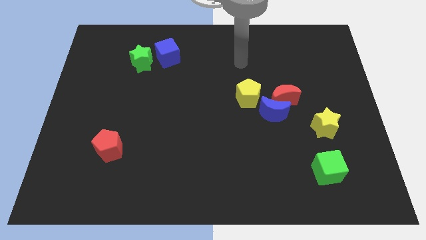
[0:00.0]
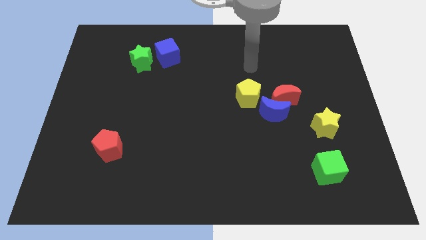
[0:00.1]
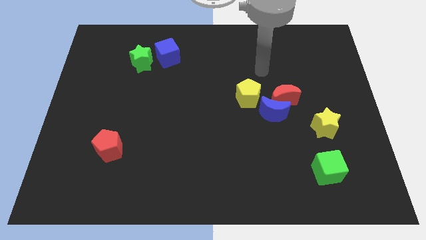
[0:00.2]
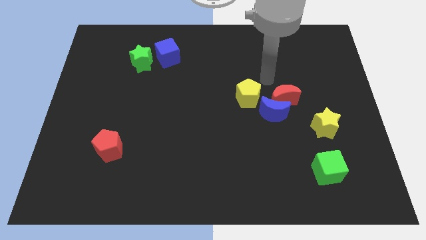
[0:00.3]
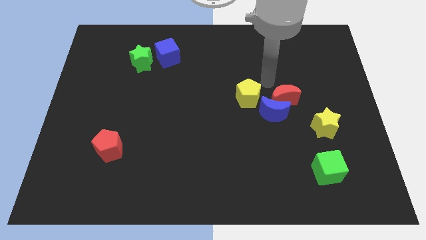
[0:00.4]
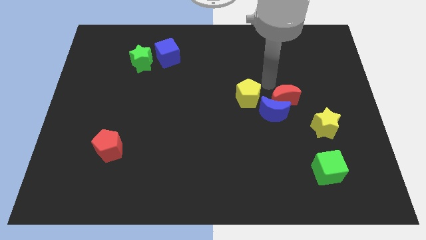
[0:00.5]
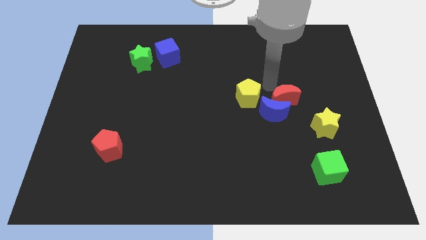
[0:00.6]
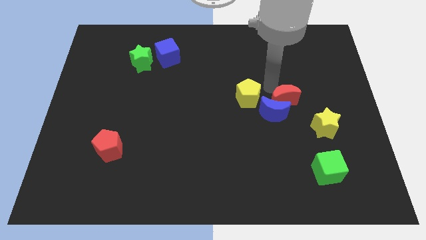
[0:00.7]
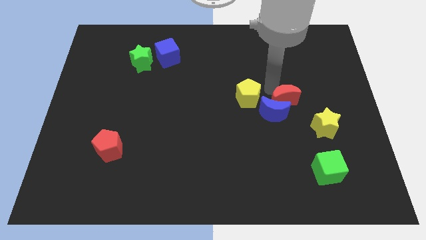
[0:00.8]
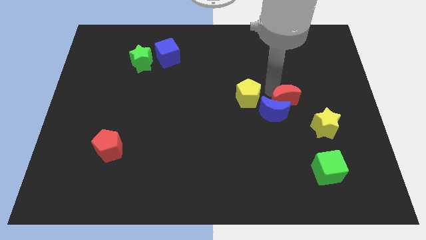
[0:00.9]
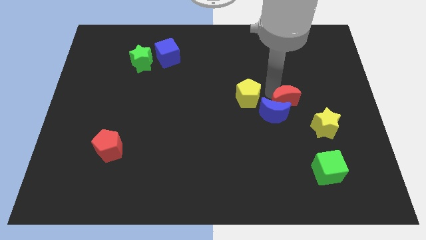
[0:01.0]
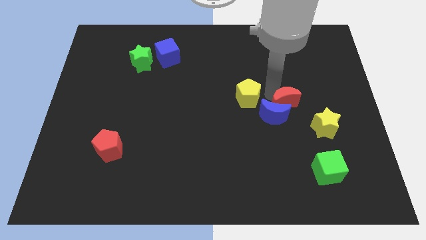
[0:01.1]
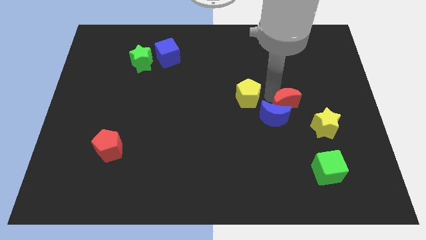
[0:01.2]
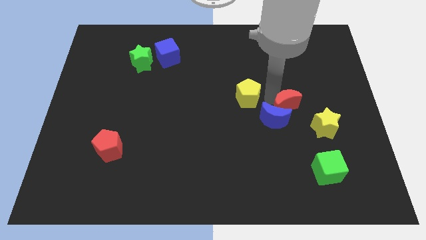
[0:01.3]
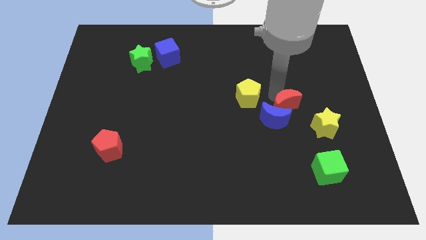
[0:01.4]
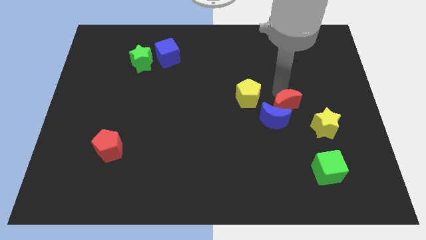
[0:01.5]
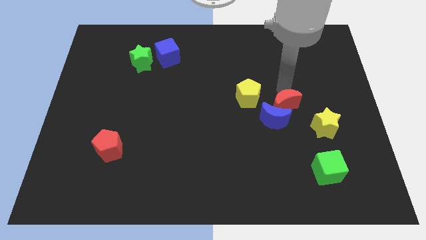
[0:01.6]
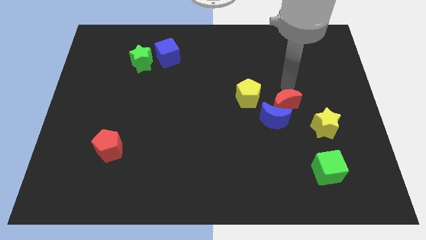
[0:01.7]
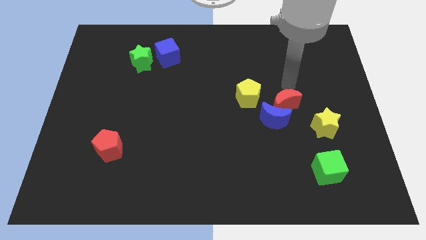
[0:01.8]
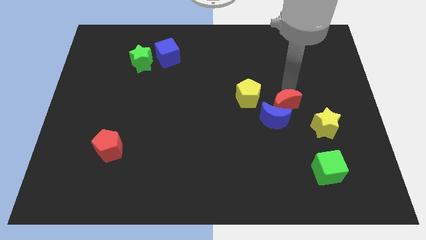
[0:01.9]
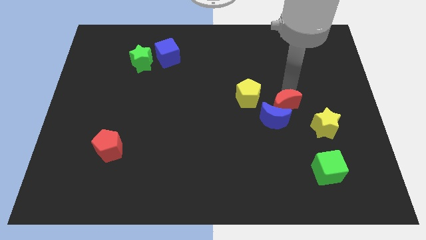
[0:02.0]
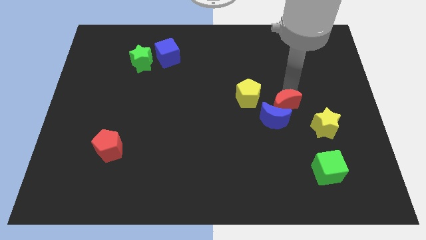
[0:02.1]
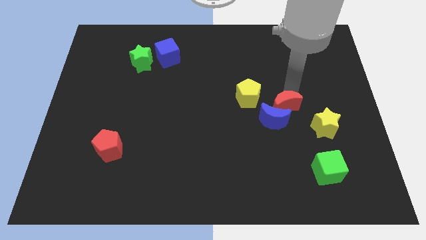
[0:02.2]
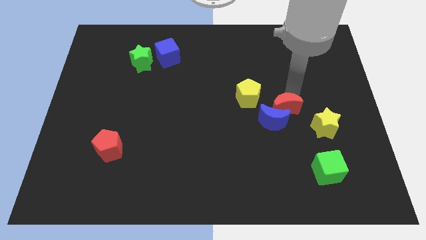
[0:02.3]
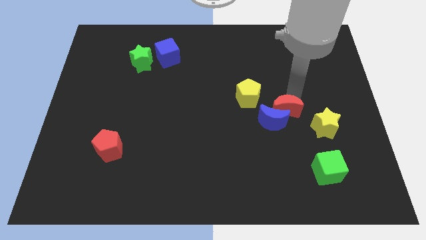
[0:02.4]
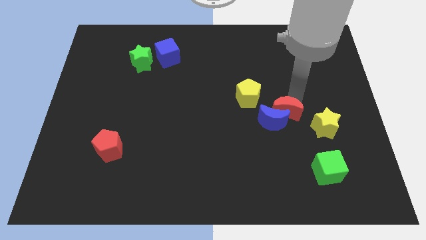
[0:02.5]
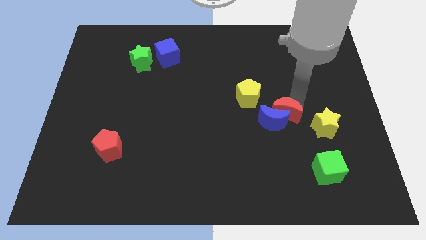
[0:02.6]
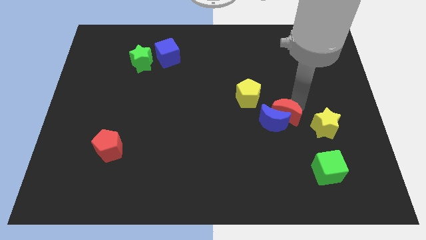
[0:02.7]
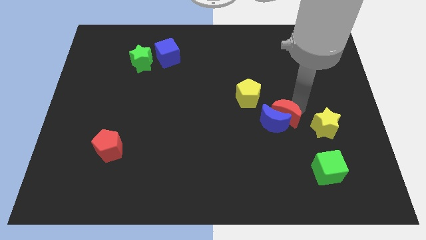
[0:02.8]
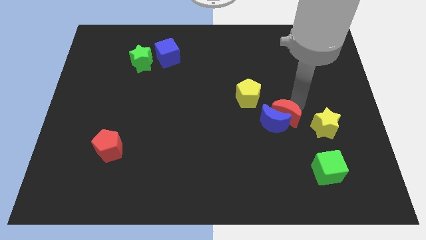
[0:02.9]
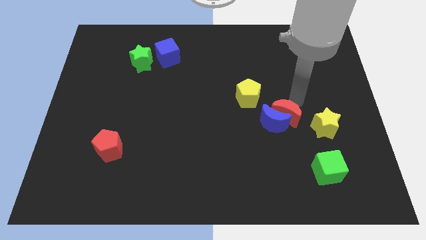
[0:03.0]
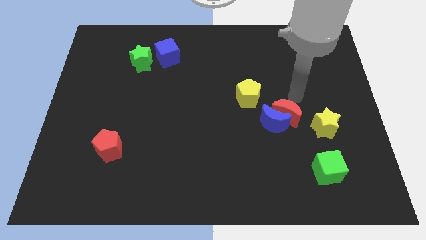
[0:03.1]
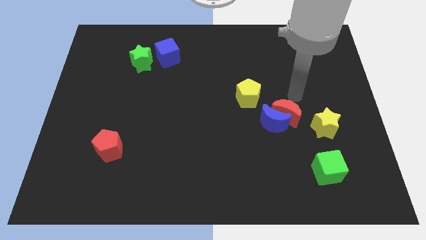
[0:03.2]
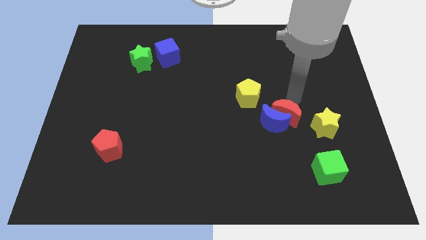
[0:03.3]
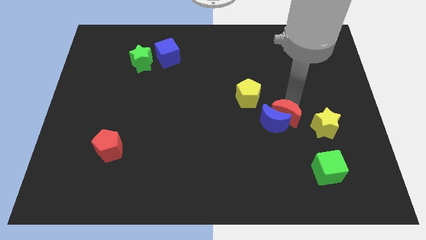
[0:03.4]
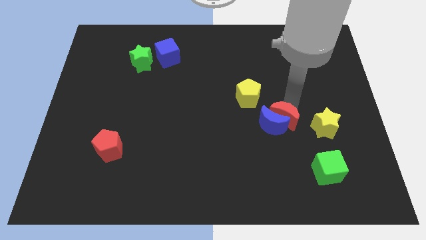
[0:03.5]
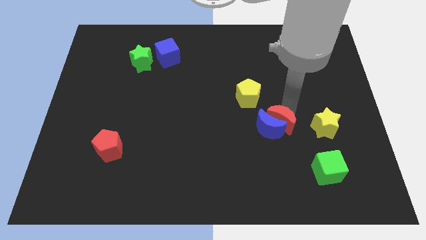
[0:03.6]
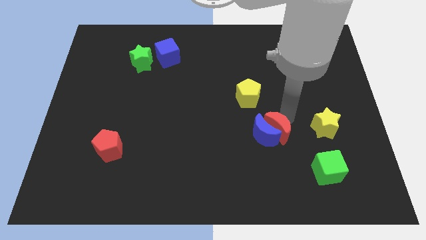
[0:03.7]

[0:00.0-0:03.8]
slide the red moon a little diagonally downwards and left

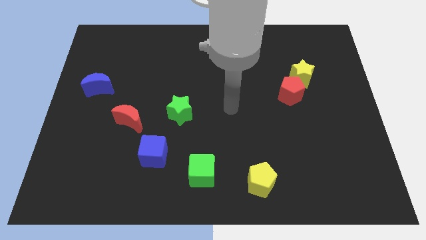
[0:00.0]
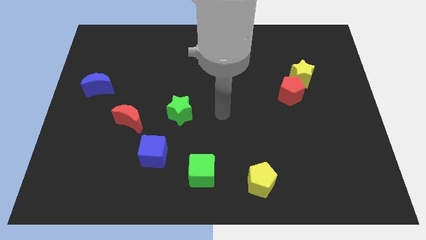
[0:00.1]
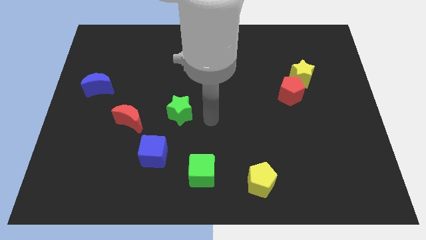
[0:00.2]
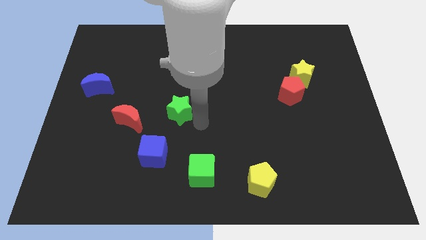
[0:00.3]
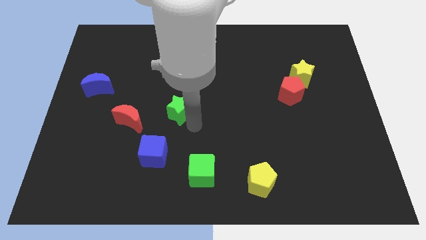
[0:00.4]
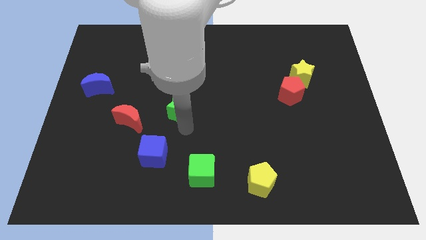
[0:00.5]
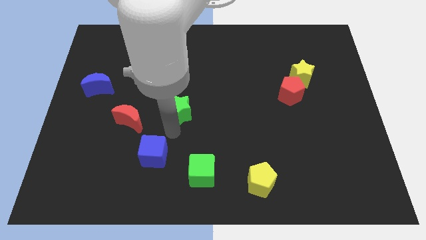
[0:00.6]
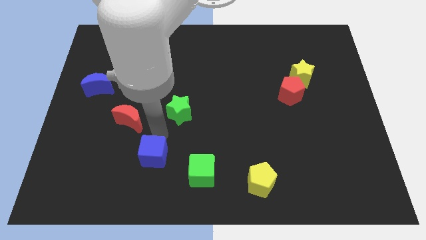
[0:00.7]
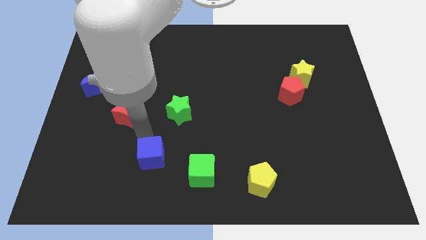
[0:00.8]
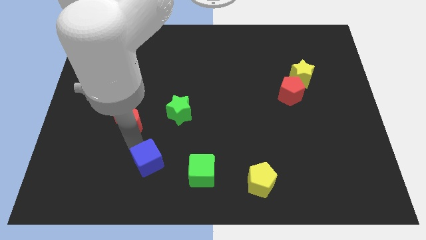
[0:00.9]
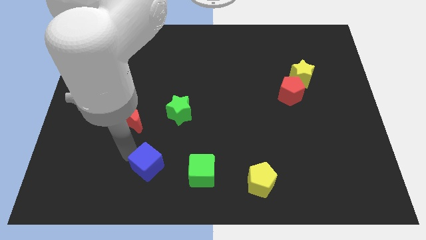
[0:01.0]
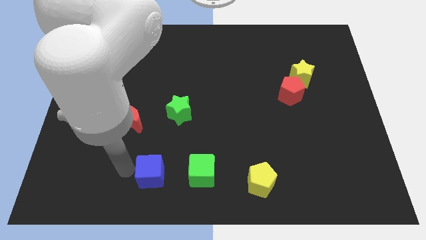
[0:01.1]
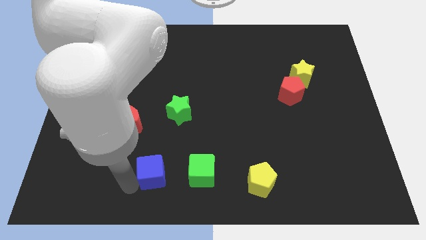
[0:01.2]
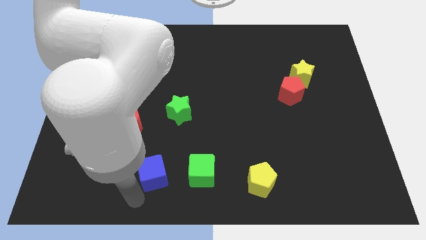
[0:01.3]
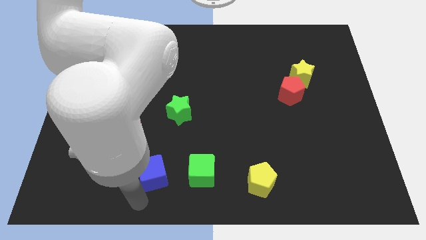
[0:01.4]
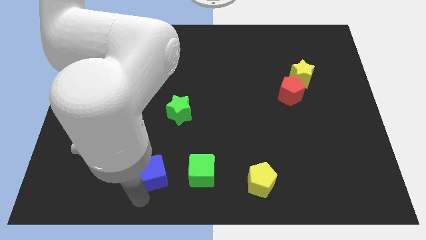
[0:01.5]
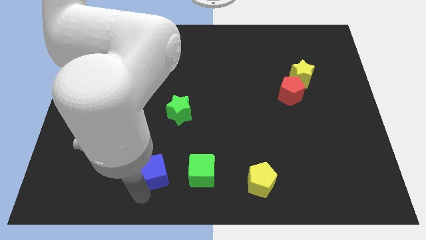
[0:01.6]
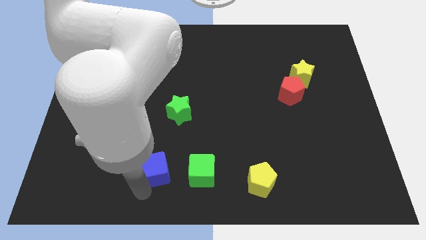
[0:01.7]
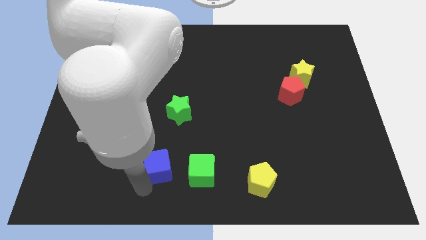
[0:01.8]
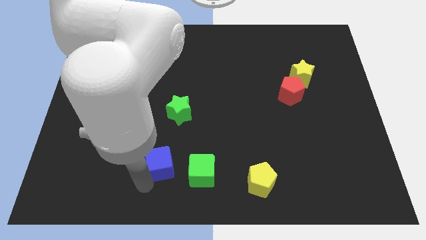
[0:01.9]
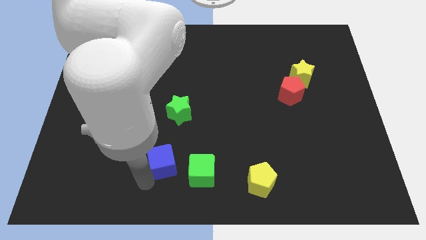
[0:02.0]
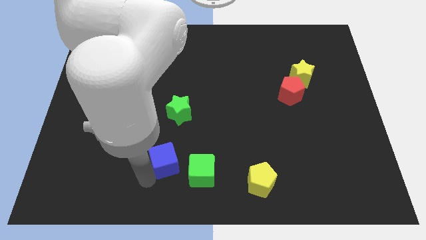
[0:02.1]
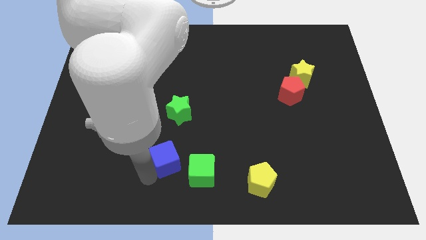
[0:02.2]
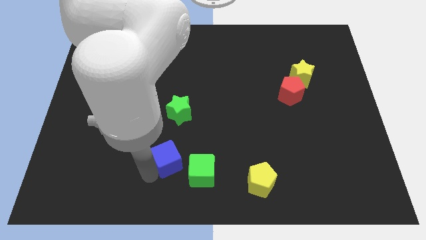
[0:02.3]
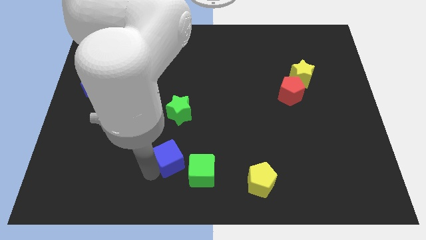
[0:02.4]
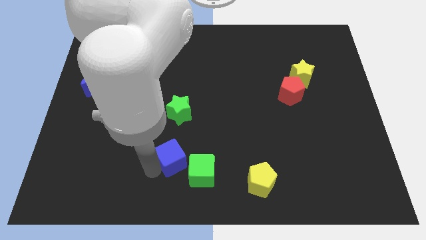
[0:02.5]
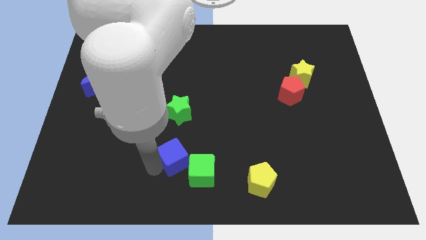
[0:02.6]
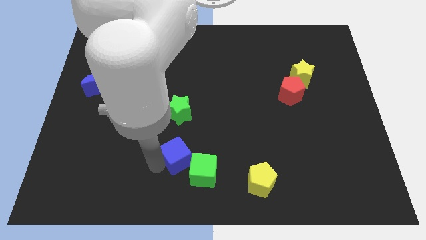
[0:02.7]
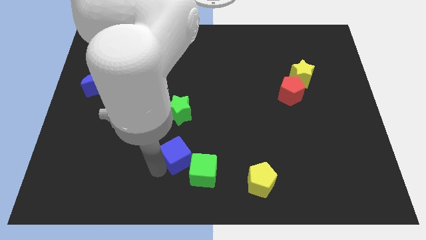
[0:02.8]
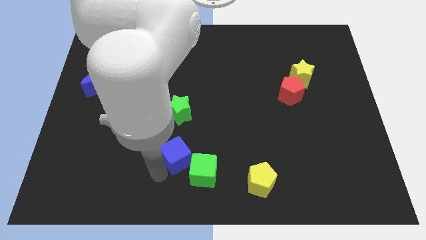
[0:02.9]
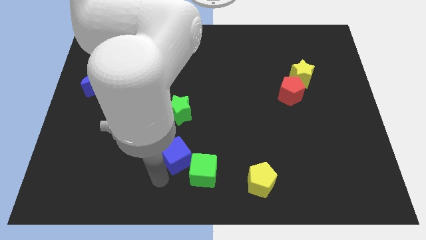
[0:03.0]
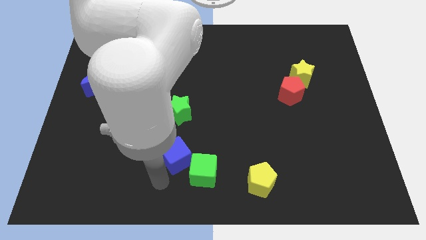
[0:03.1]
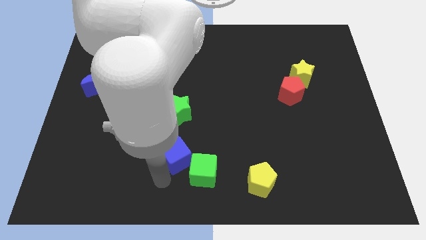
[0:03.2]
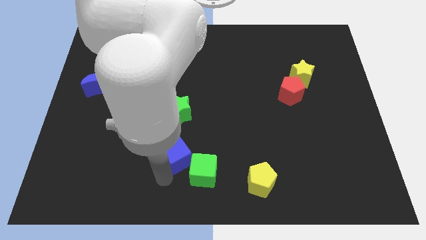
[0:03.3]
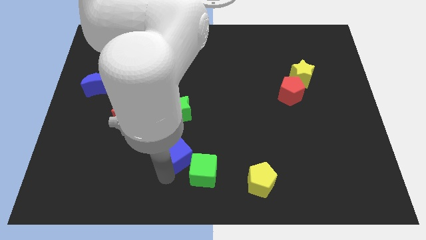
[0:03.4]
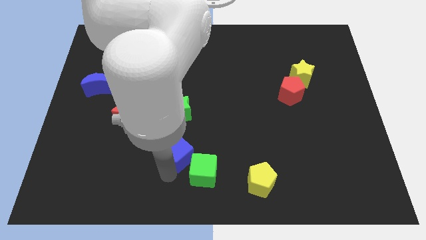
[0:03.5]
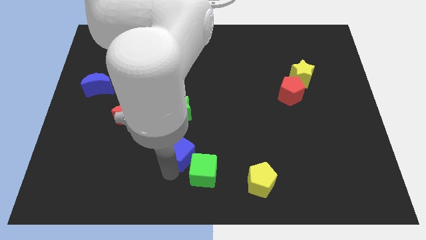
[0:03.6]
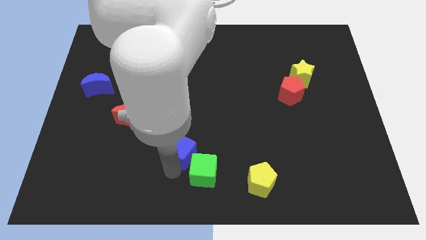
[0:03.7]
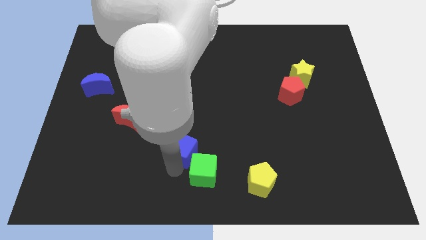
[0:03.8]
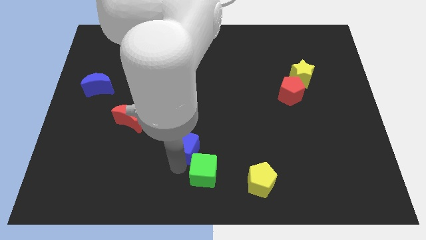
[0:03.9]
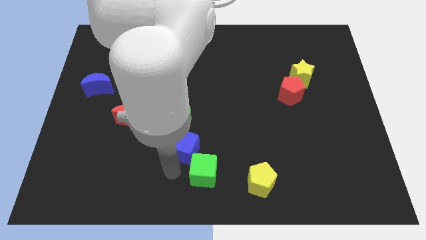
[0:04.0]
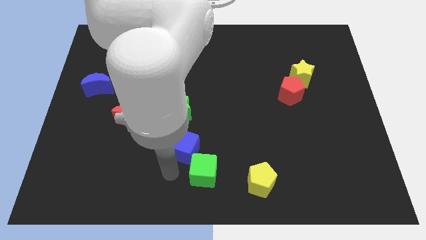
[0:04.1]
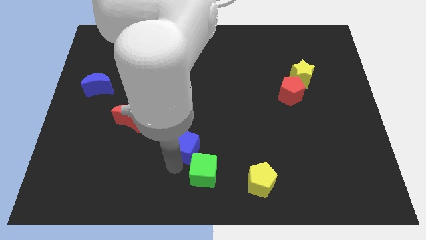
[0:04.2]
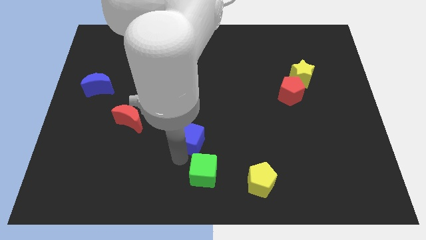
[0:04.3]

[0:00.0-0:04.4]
slide the blue cube a little bit upwards and then to the right
